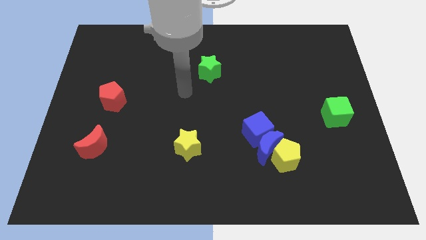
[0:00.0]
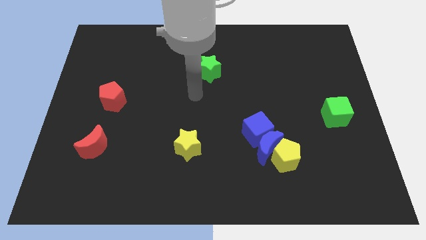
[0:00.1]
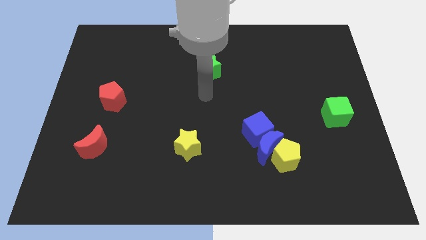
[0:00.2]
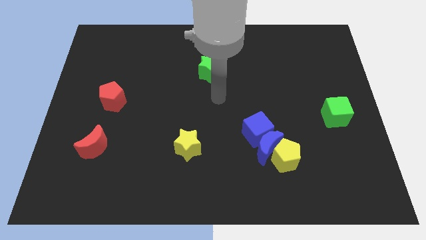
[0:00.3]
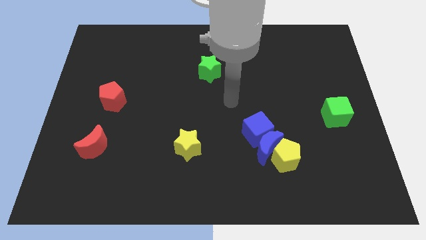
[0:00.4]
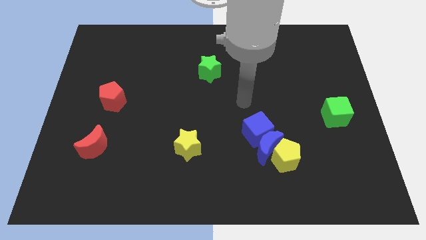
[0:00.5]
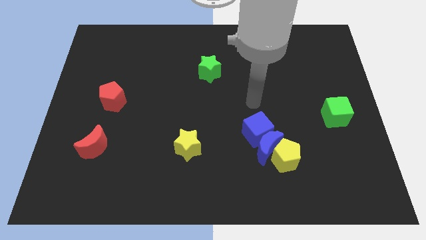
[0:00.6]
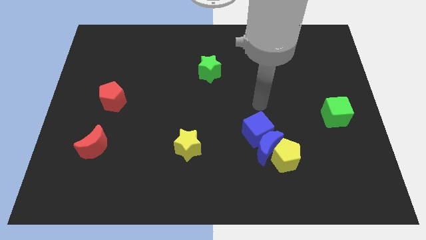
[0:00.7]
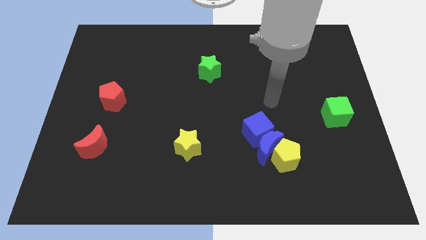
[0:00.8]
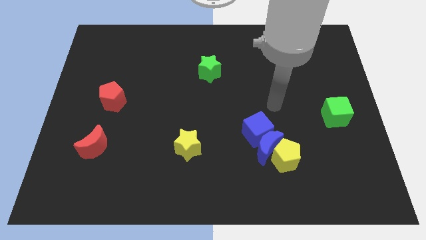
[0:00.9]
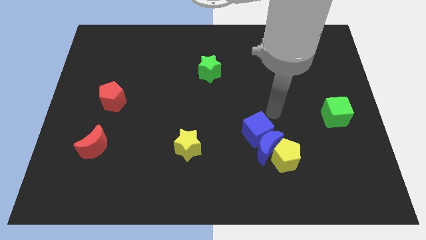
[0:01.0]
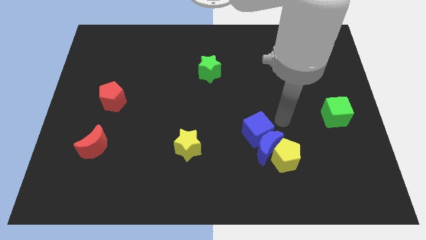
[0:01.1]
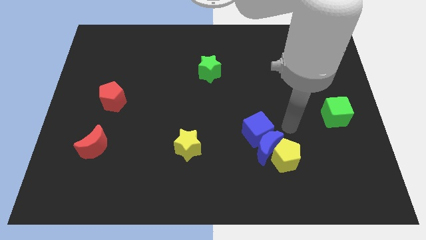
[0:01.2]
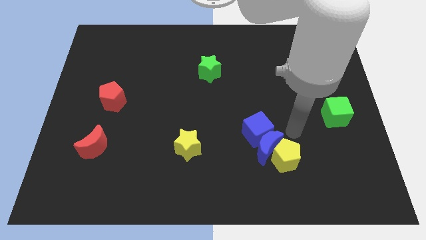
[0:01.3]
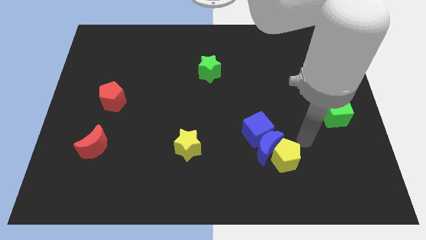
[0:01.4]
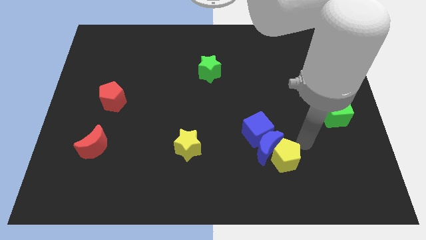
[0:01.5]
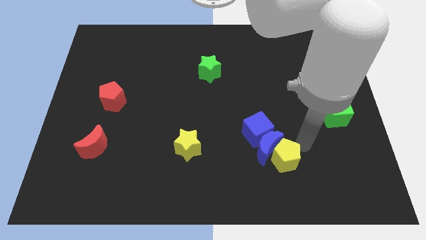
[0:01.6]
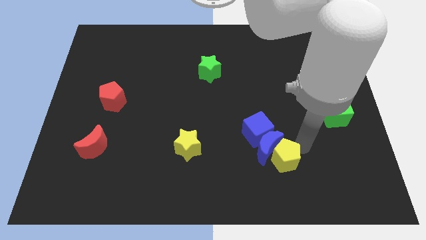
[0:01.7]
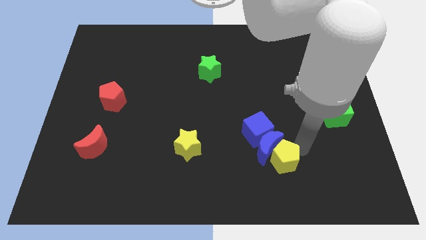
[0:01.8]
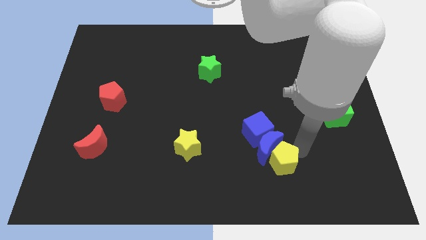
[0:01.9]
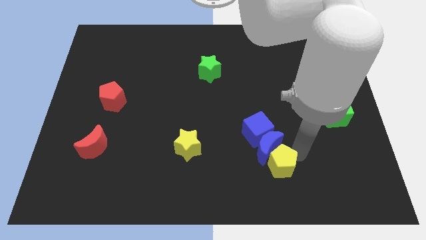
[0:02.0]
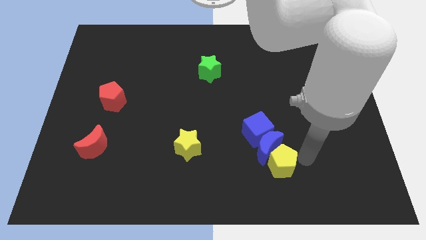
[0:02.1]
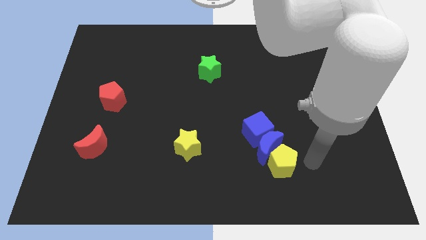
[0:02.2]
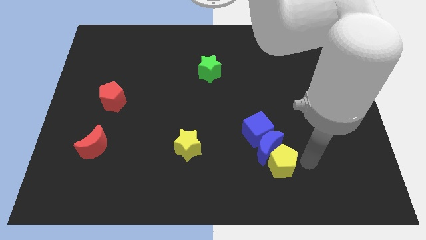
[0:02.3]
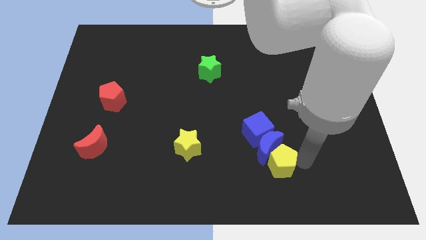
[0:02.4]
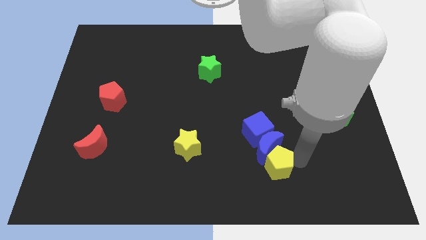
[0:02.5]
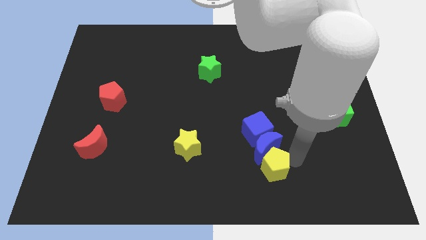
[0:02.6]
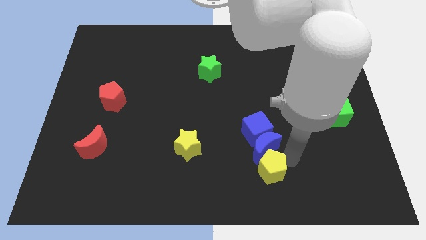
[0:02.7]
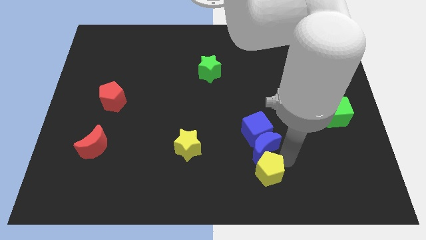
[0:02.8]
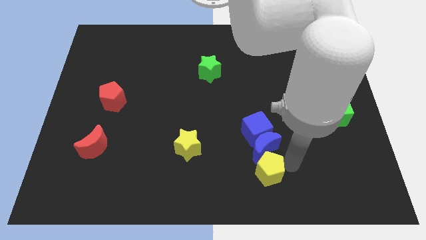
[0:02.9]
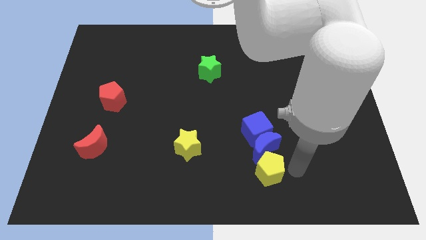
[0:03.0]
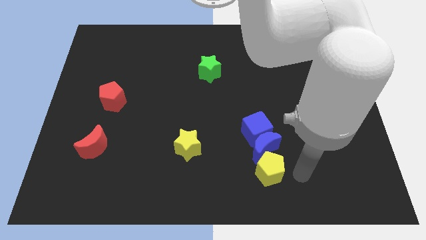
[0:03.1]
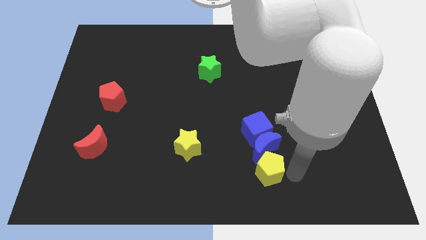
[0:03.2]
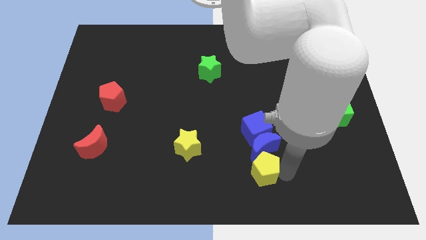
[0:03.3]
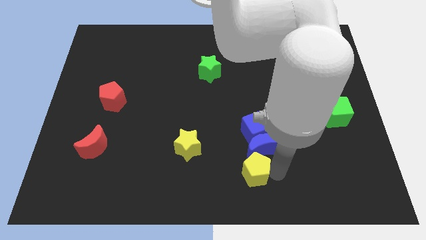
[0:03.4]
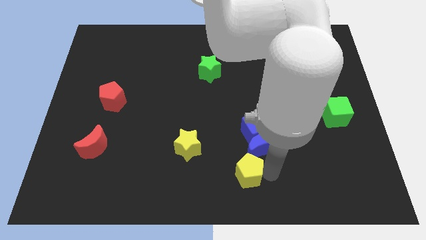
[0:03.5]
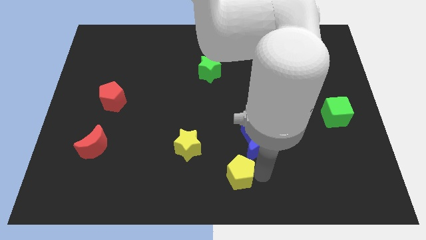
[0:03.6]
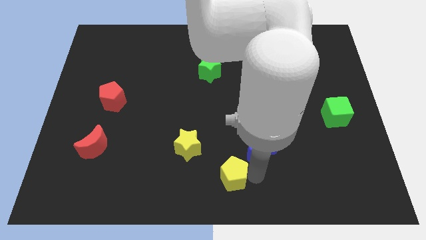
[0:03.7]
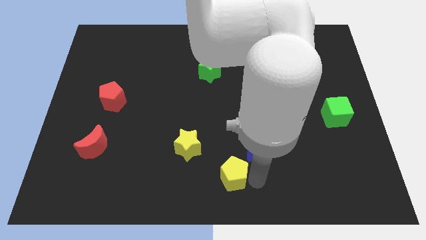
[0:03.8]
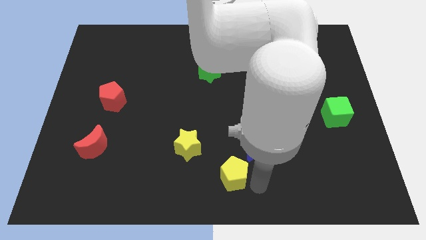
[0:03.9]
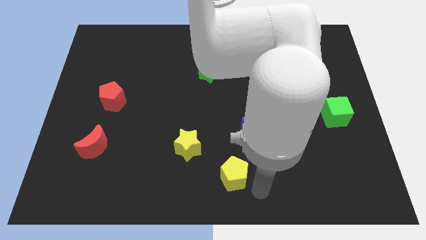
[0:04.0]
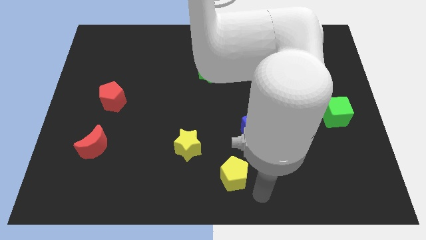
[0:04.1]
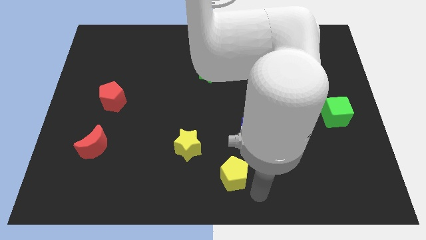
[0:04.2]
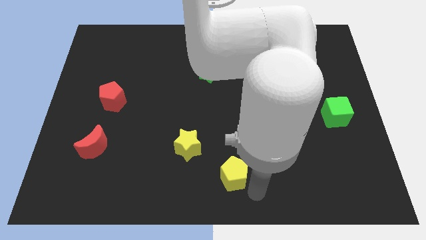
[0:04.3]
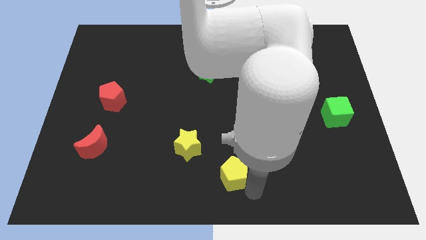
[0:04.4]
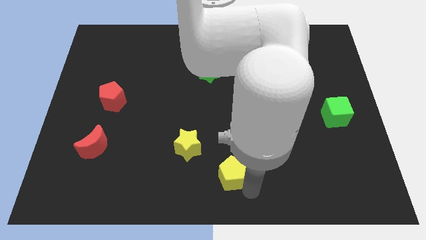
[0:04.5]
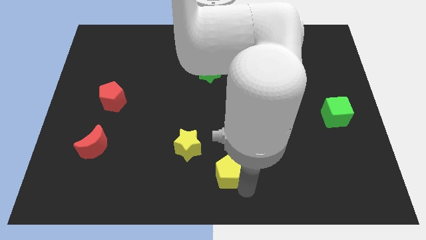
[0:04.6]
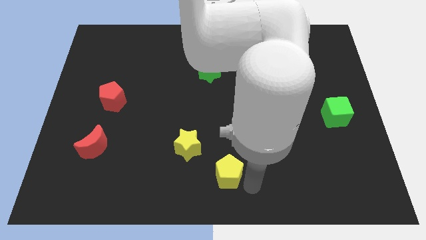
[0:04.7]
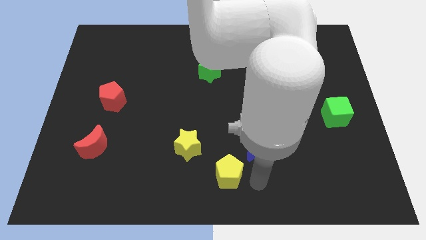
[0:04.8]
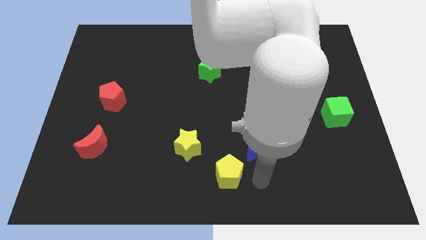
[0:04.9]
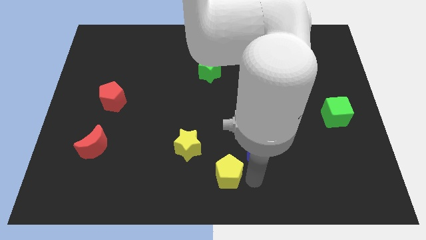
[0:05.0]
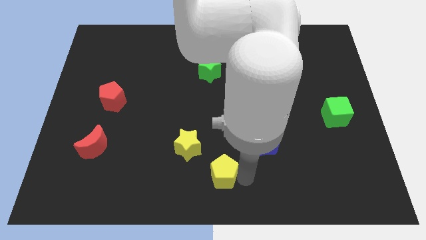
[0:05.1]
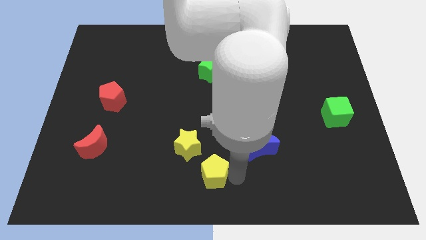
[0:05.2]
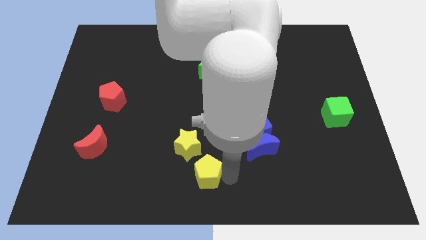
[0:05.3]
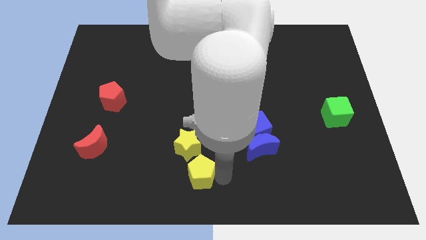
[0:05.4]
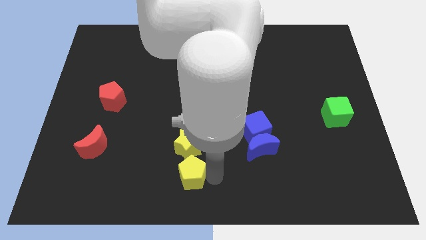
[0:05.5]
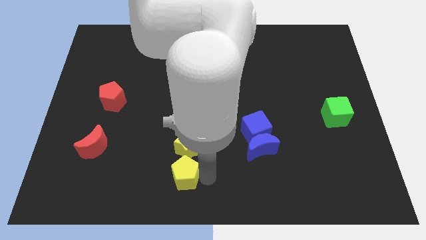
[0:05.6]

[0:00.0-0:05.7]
slide the yellow pentagon to the left

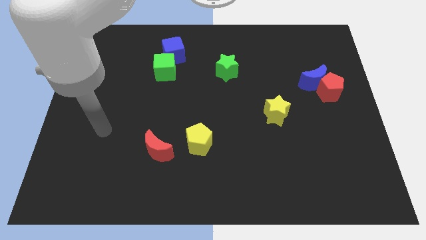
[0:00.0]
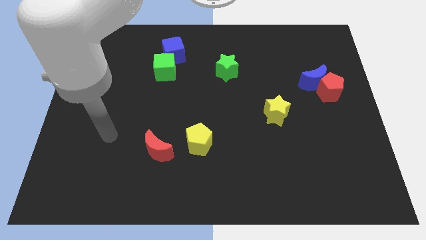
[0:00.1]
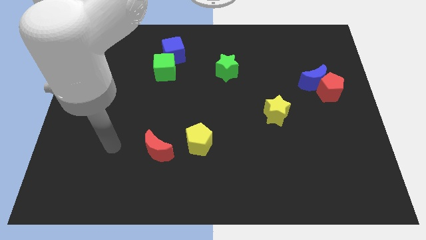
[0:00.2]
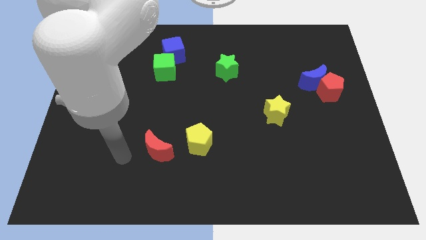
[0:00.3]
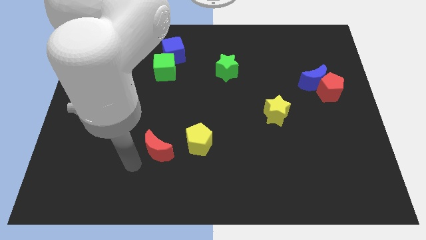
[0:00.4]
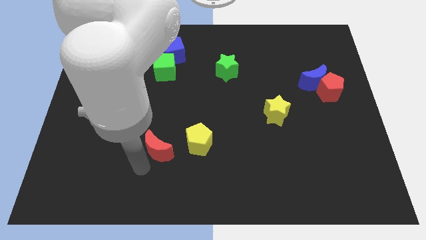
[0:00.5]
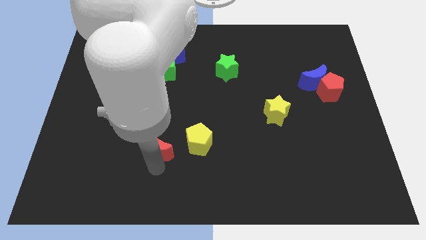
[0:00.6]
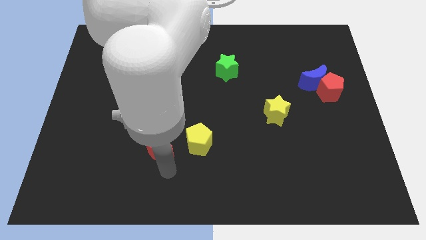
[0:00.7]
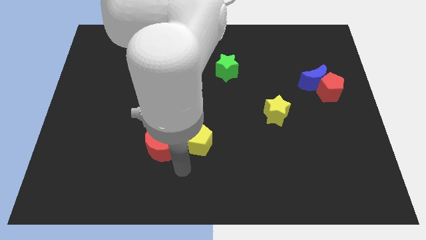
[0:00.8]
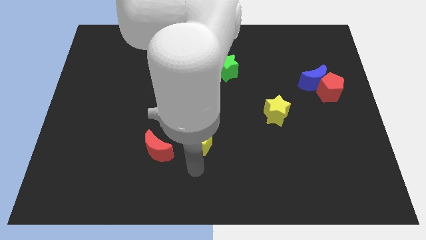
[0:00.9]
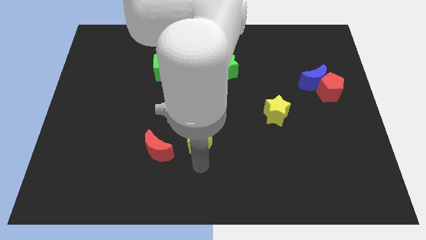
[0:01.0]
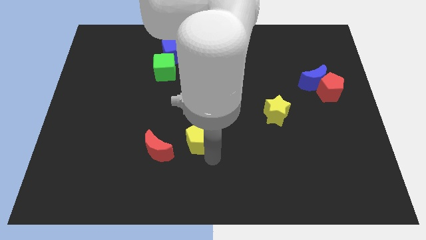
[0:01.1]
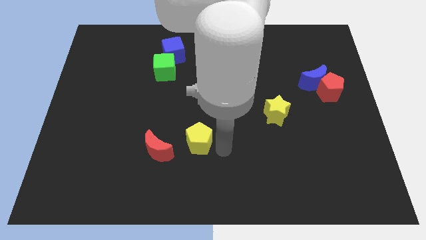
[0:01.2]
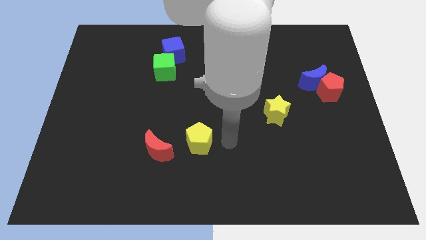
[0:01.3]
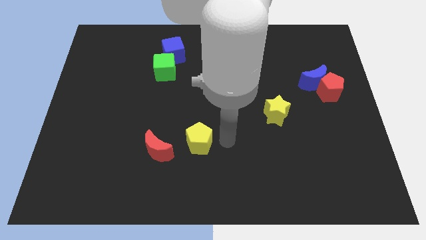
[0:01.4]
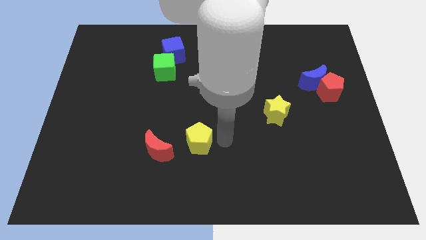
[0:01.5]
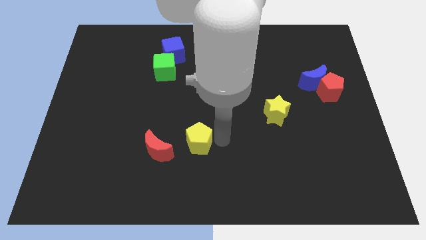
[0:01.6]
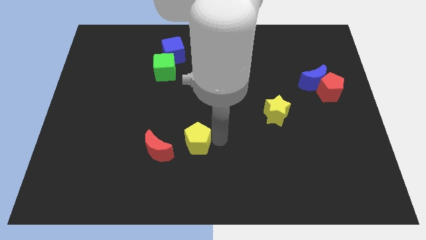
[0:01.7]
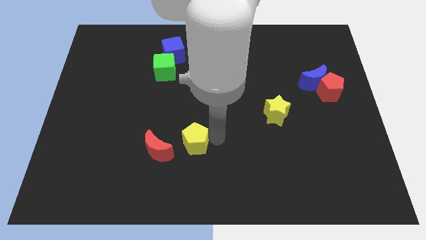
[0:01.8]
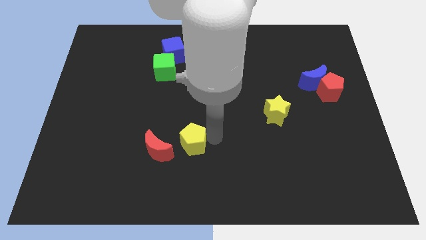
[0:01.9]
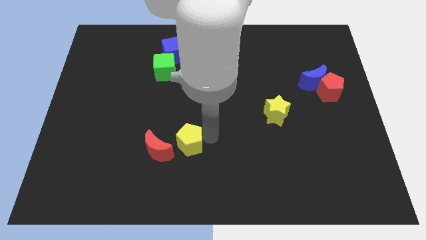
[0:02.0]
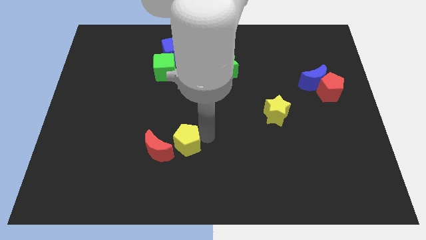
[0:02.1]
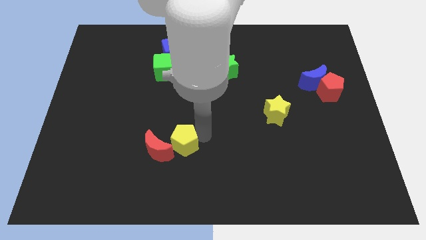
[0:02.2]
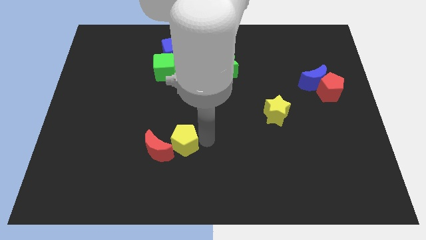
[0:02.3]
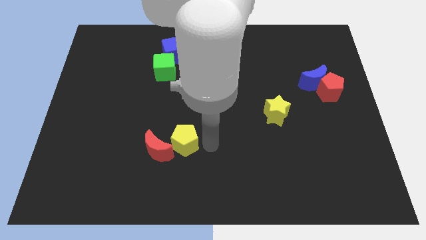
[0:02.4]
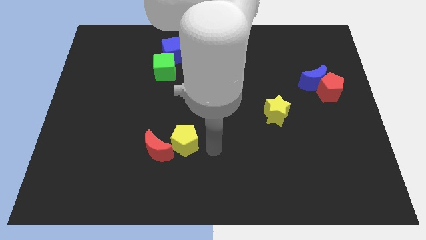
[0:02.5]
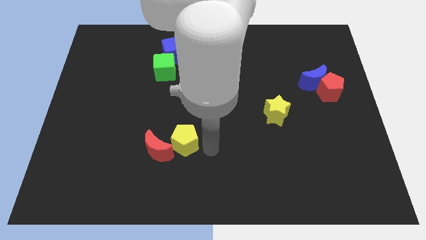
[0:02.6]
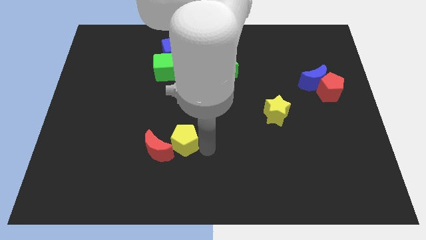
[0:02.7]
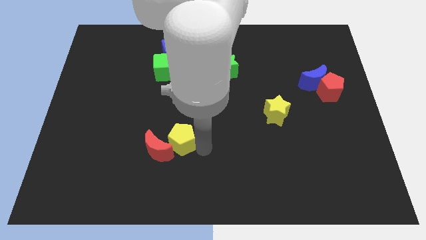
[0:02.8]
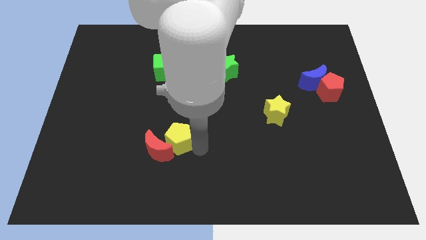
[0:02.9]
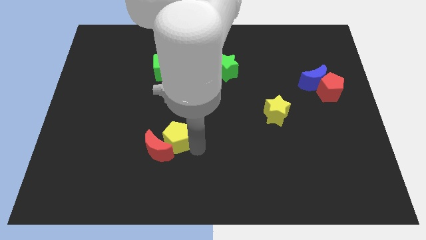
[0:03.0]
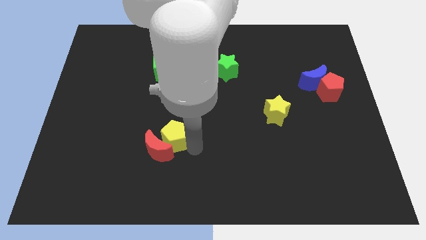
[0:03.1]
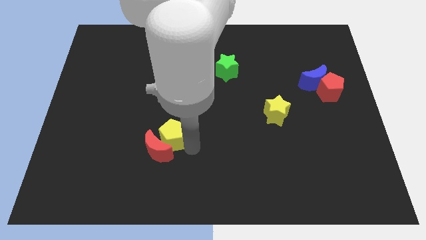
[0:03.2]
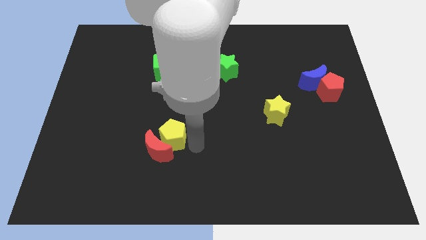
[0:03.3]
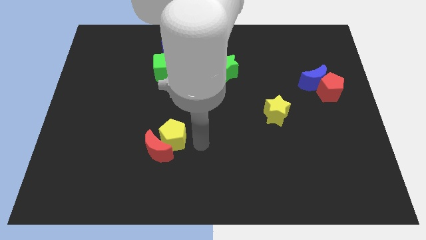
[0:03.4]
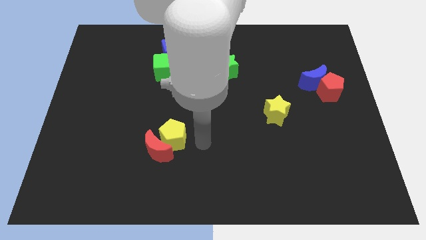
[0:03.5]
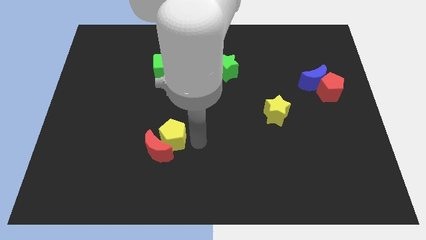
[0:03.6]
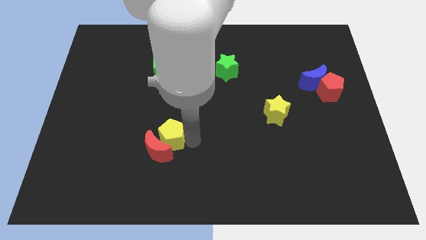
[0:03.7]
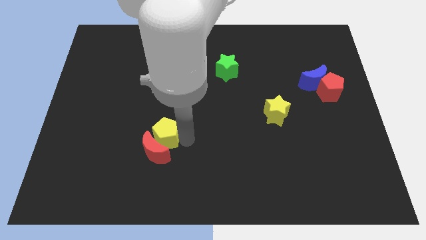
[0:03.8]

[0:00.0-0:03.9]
move the yellow pentagon somewhat left
